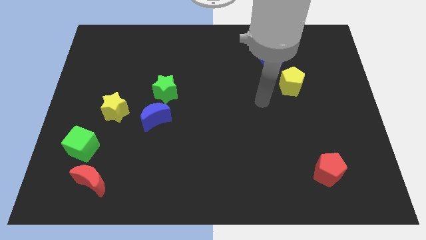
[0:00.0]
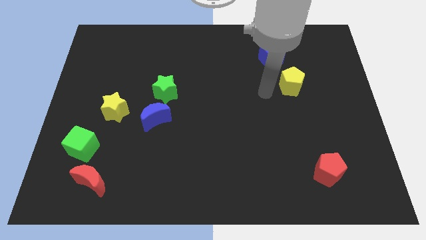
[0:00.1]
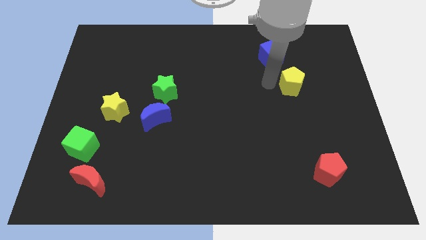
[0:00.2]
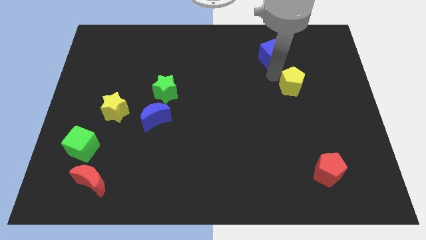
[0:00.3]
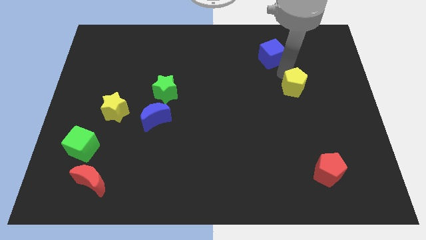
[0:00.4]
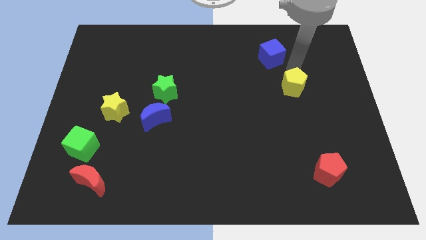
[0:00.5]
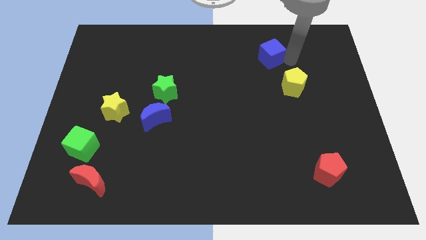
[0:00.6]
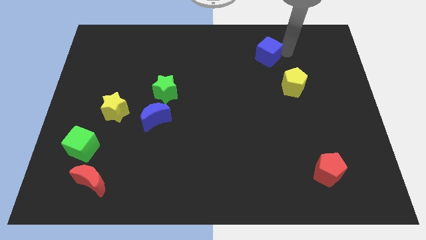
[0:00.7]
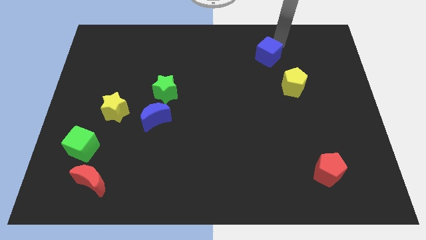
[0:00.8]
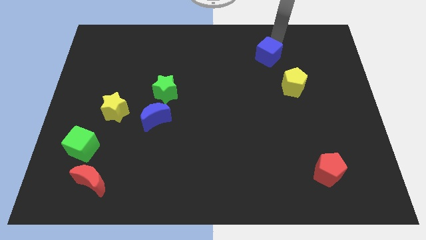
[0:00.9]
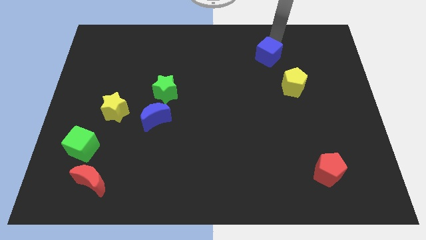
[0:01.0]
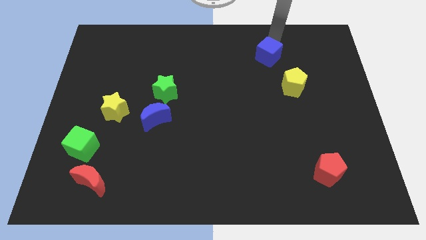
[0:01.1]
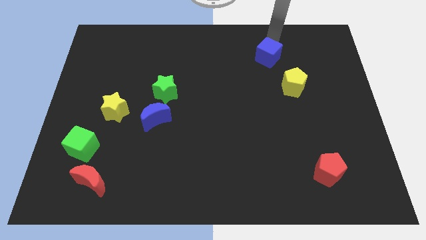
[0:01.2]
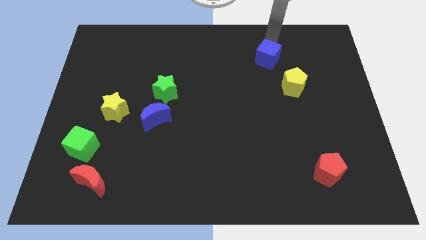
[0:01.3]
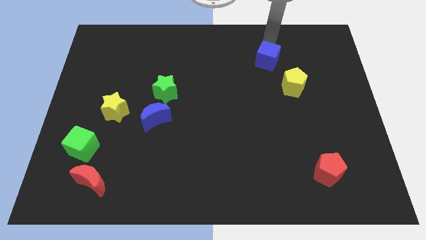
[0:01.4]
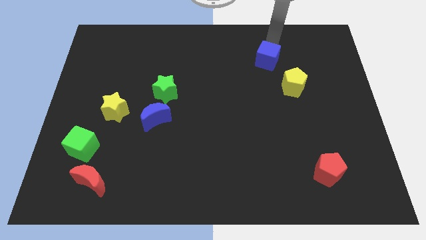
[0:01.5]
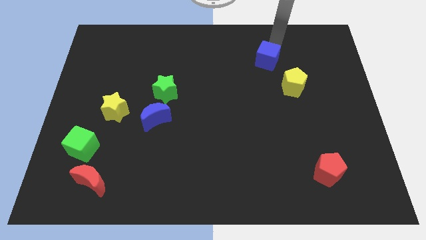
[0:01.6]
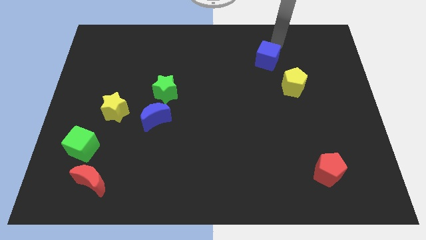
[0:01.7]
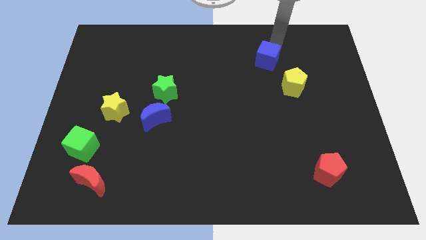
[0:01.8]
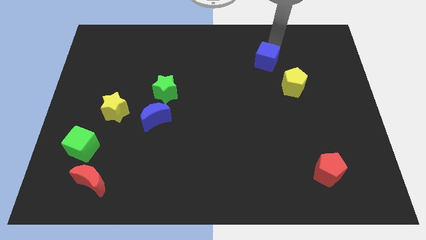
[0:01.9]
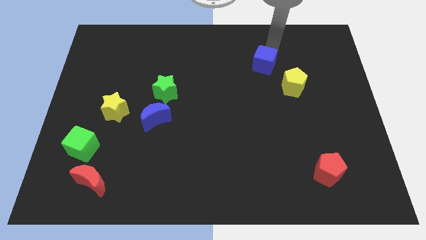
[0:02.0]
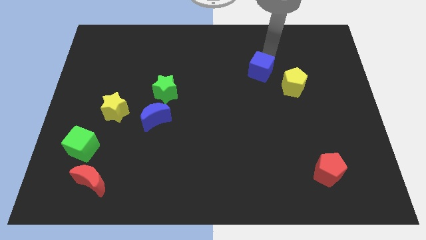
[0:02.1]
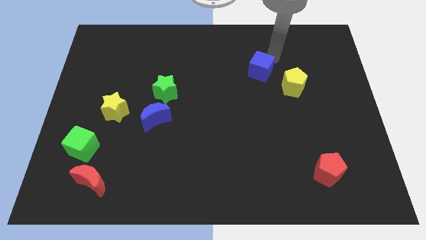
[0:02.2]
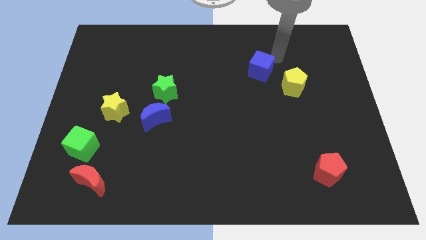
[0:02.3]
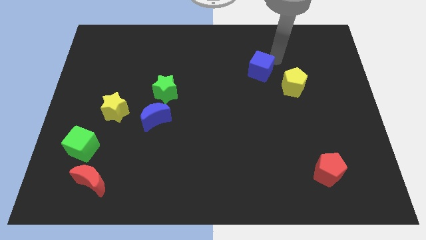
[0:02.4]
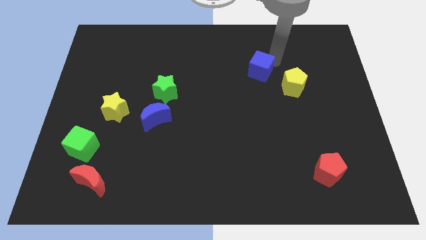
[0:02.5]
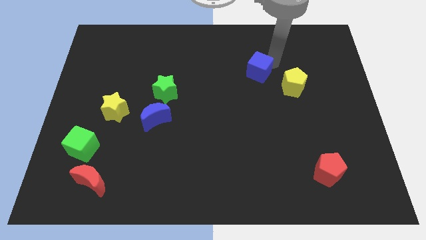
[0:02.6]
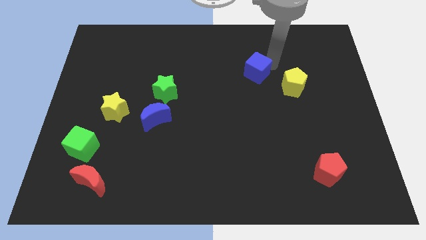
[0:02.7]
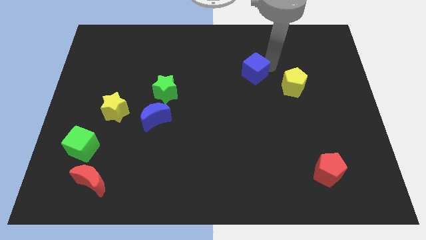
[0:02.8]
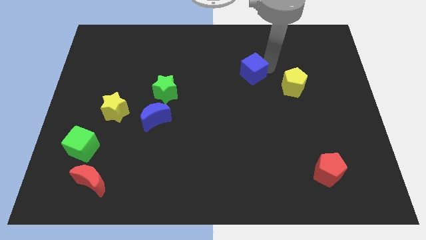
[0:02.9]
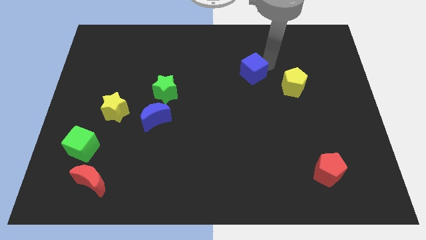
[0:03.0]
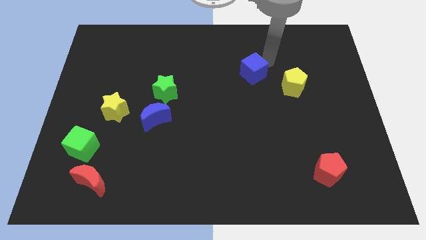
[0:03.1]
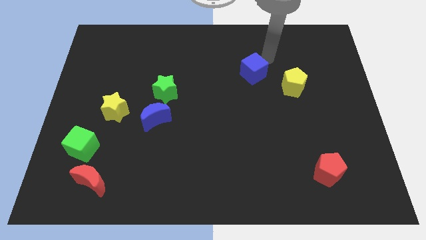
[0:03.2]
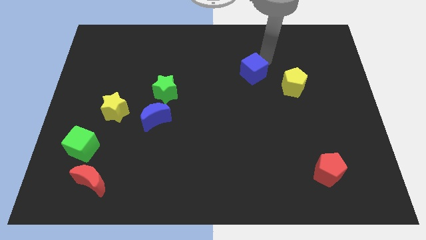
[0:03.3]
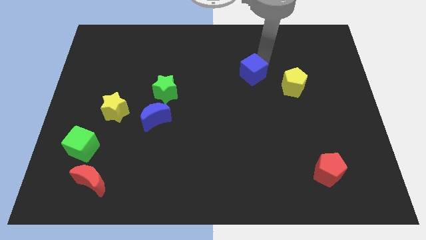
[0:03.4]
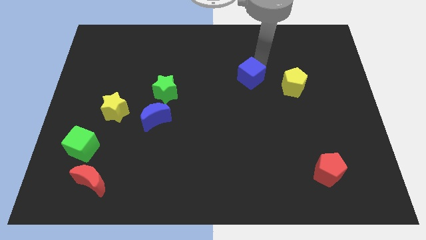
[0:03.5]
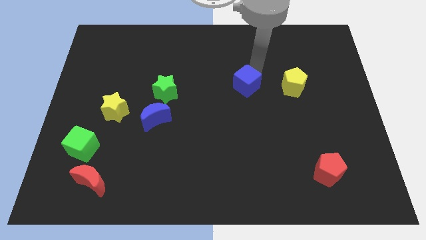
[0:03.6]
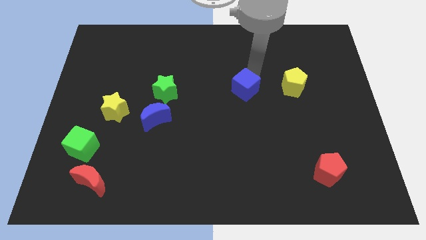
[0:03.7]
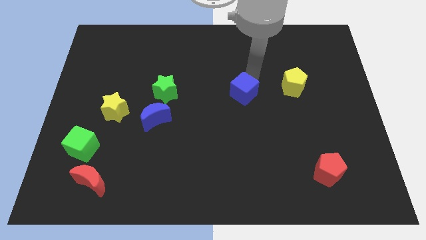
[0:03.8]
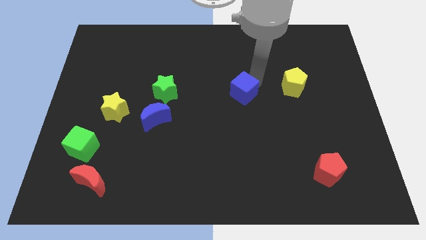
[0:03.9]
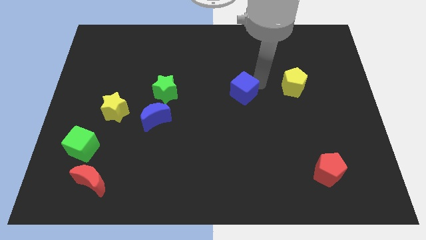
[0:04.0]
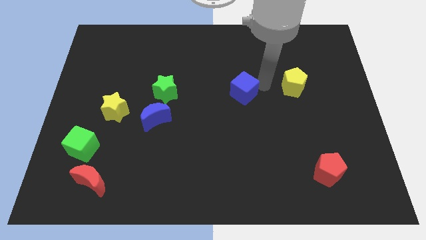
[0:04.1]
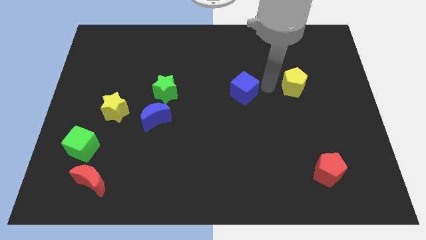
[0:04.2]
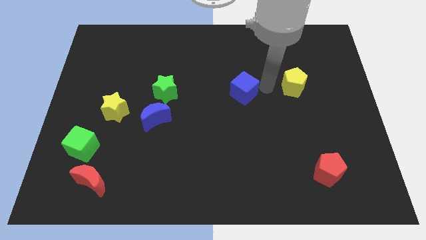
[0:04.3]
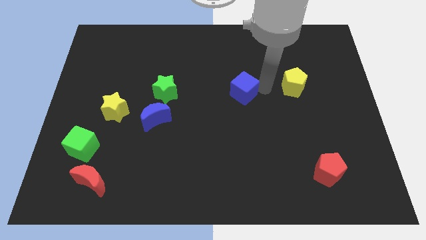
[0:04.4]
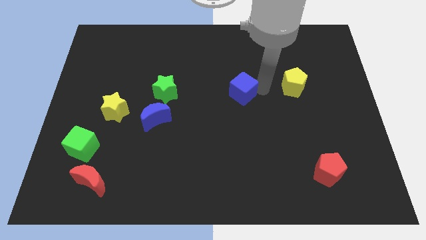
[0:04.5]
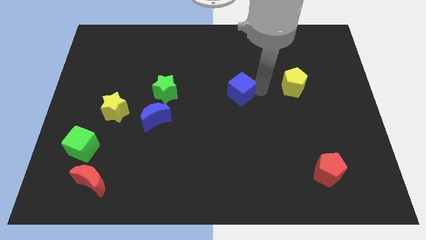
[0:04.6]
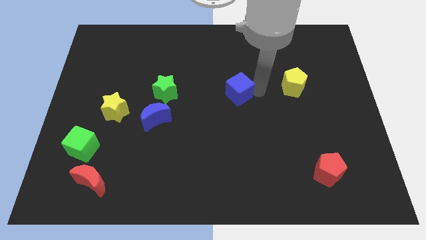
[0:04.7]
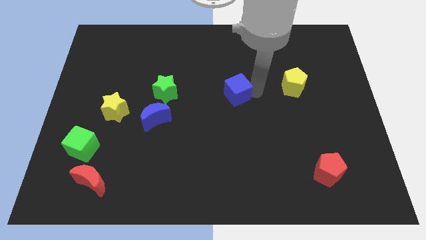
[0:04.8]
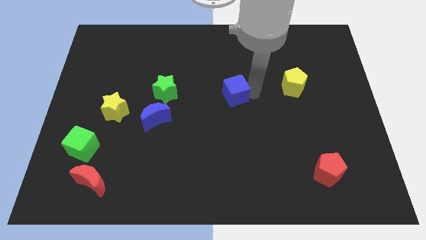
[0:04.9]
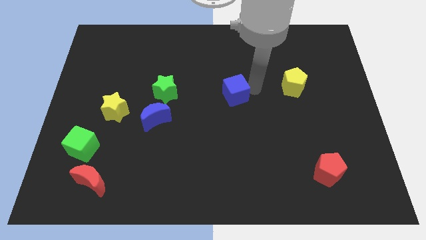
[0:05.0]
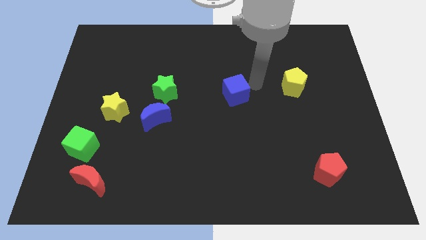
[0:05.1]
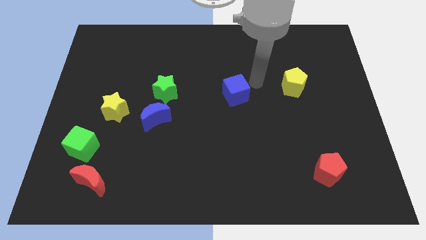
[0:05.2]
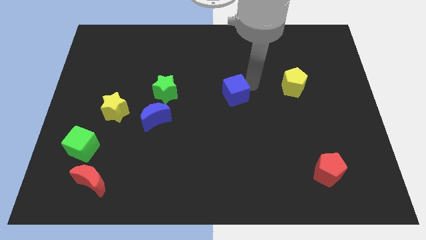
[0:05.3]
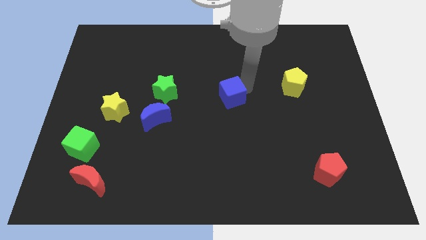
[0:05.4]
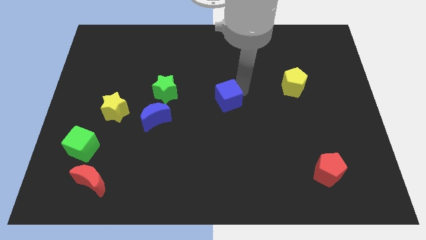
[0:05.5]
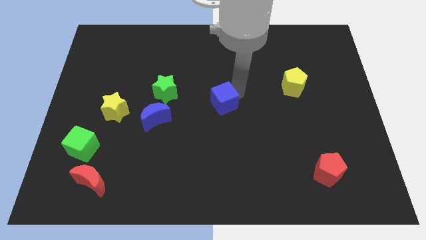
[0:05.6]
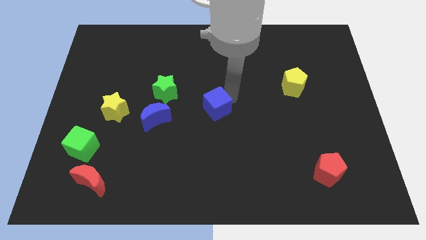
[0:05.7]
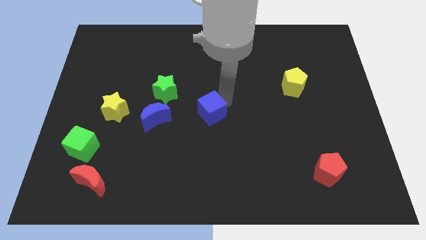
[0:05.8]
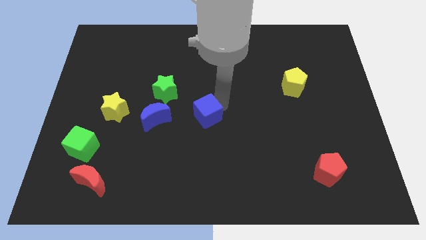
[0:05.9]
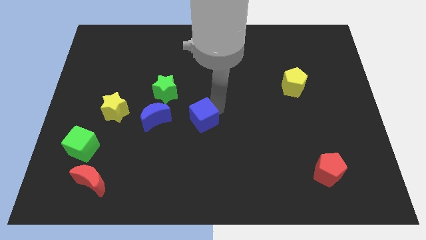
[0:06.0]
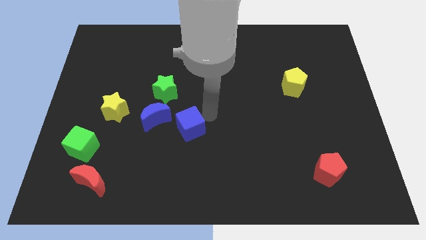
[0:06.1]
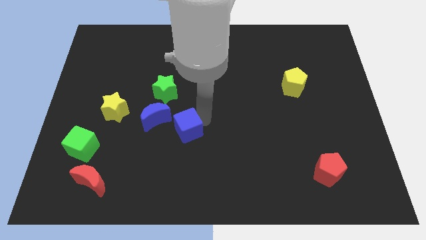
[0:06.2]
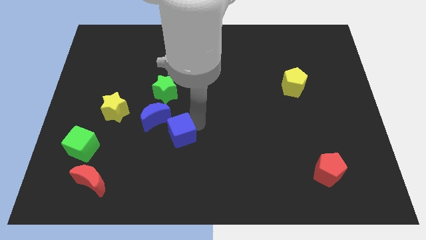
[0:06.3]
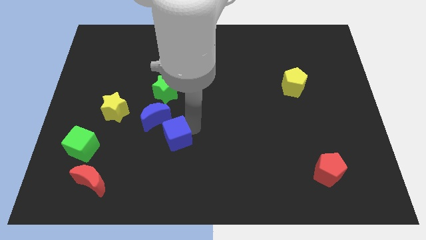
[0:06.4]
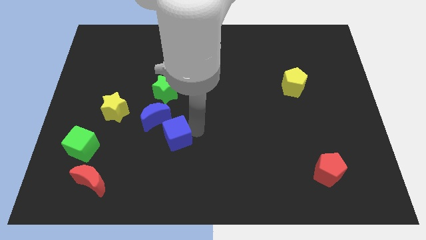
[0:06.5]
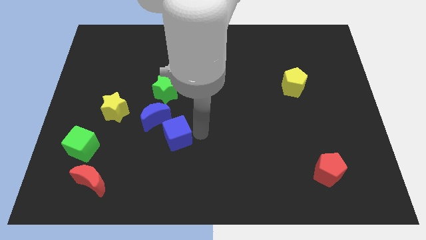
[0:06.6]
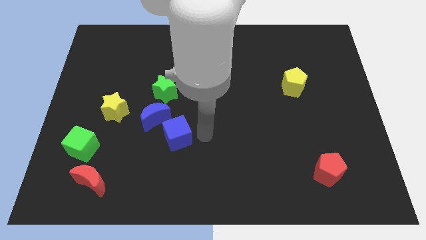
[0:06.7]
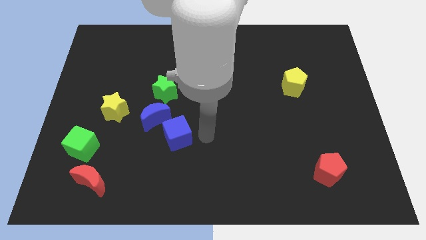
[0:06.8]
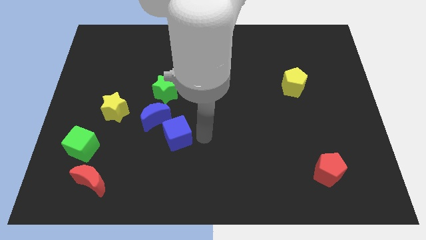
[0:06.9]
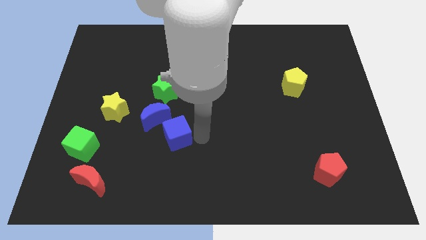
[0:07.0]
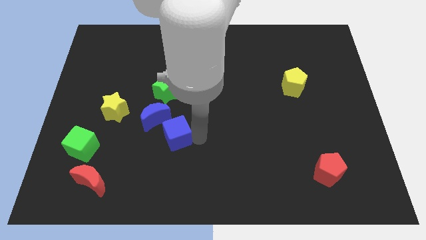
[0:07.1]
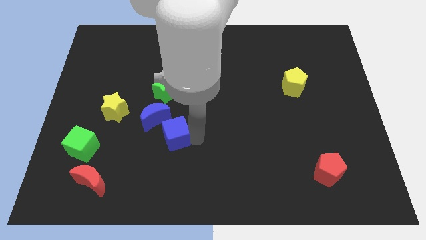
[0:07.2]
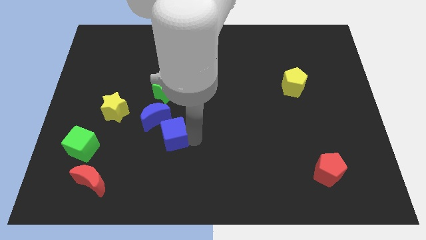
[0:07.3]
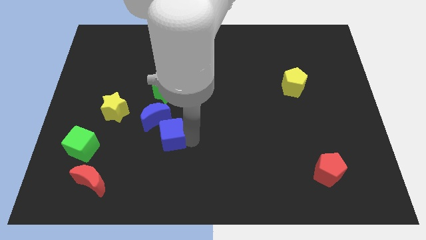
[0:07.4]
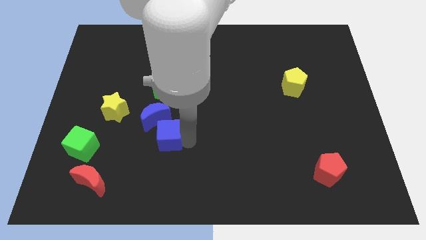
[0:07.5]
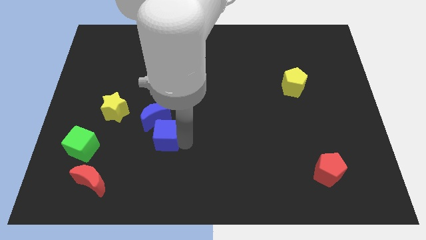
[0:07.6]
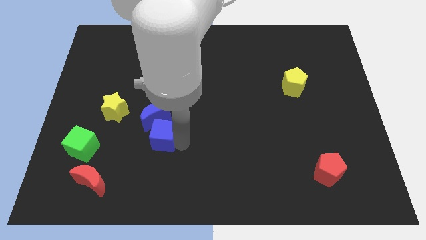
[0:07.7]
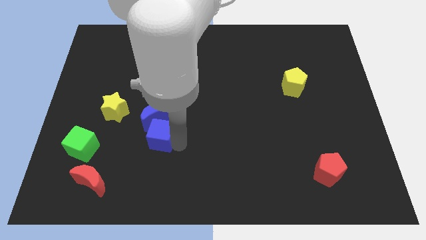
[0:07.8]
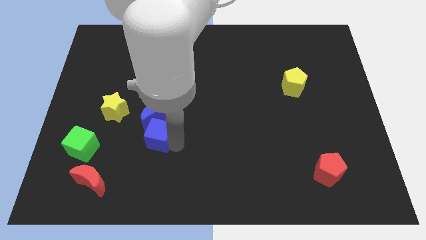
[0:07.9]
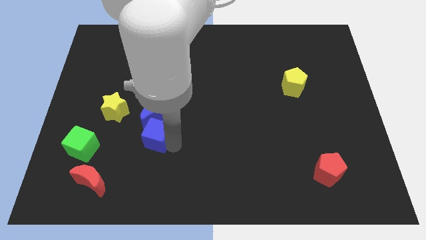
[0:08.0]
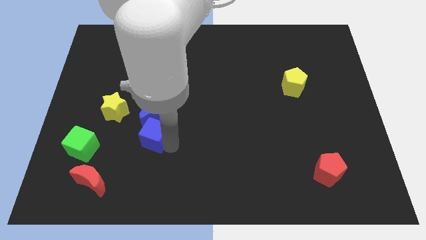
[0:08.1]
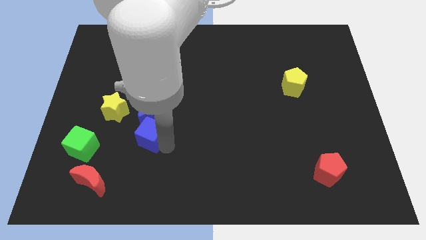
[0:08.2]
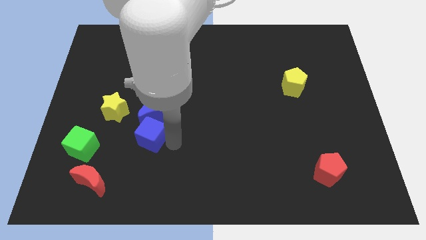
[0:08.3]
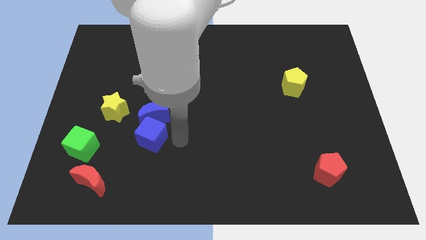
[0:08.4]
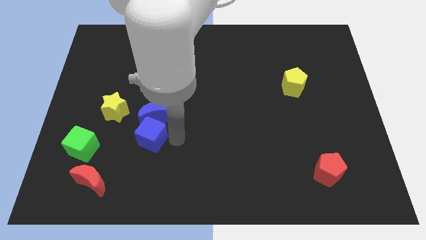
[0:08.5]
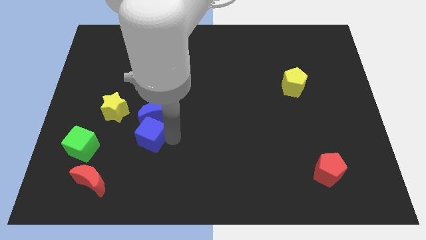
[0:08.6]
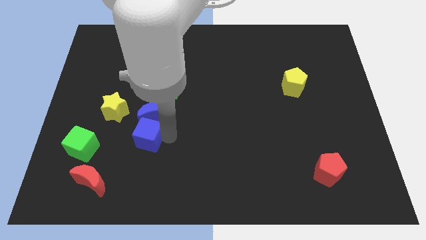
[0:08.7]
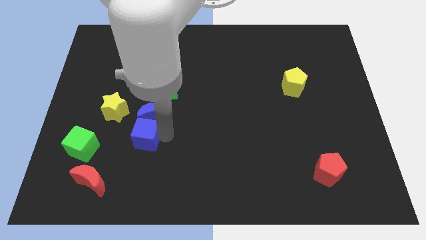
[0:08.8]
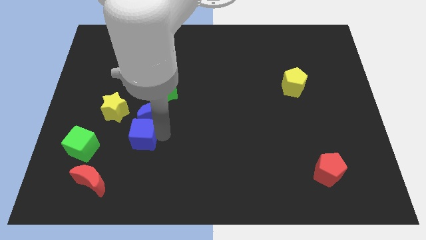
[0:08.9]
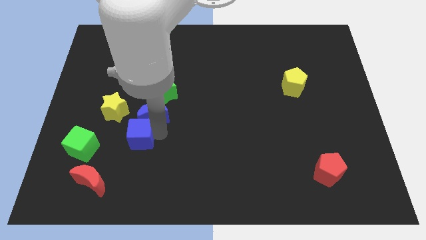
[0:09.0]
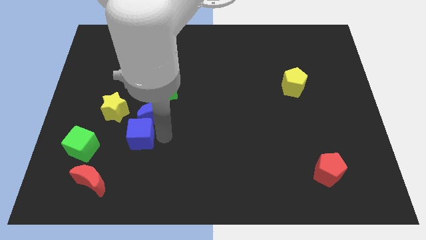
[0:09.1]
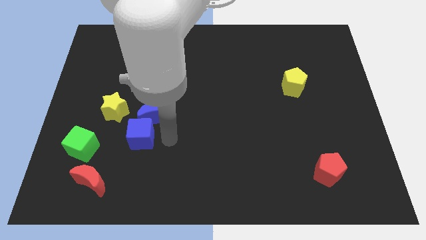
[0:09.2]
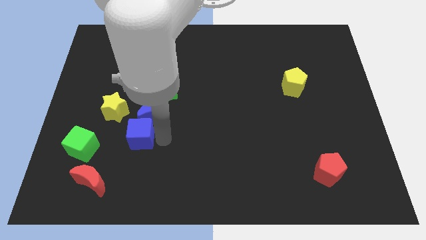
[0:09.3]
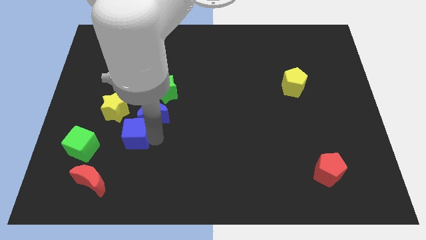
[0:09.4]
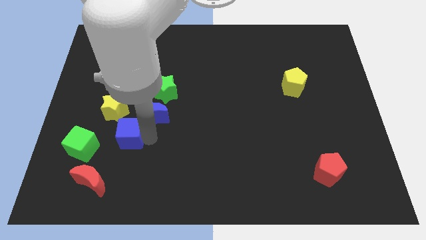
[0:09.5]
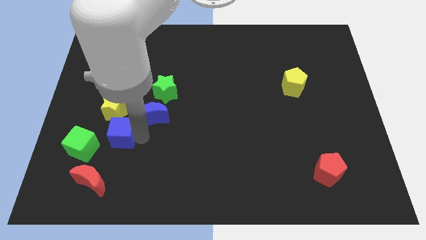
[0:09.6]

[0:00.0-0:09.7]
slide the blue cube above the red moon
